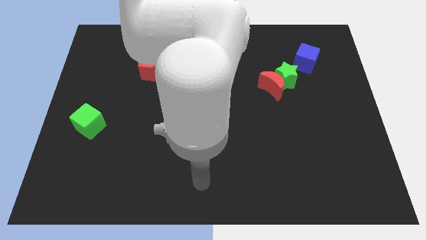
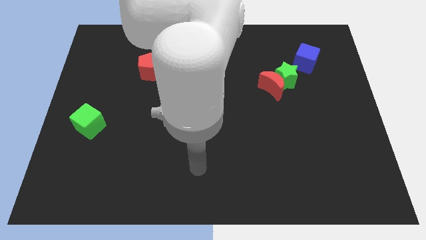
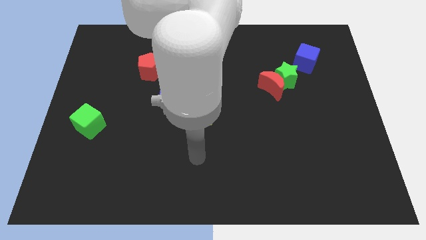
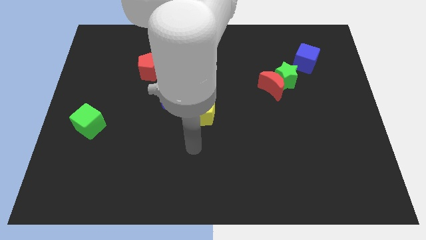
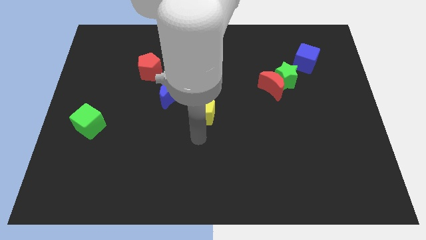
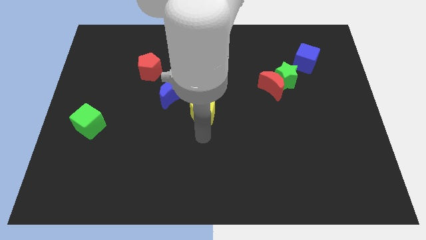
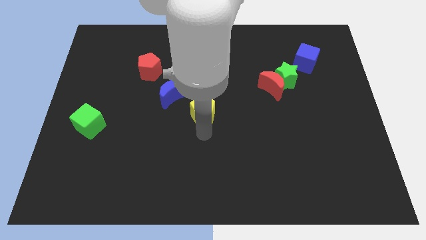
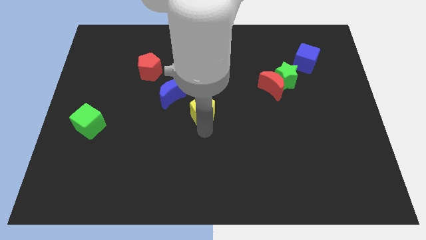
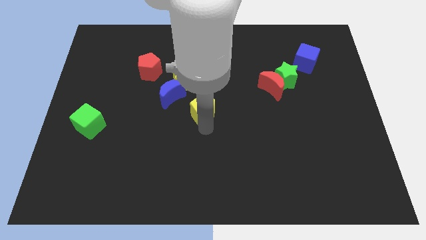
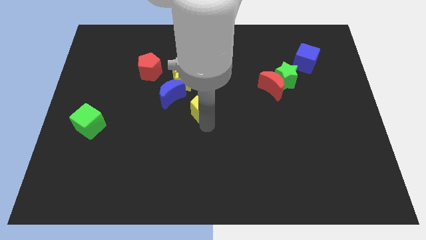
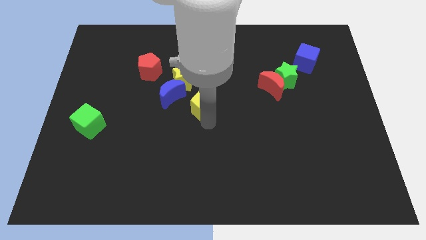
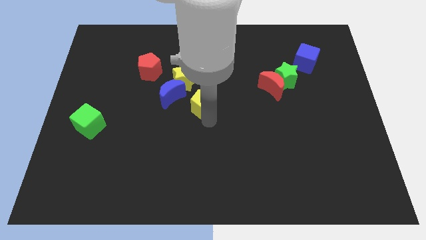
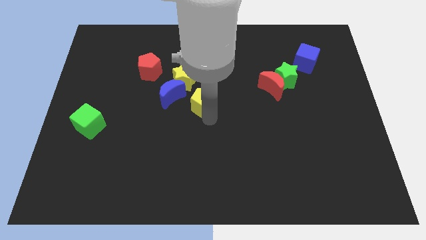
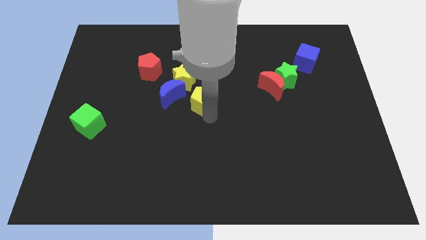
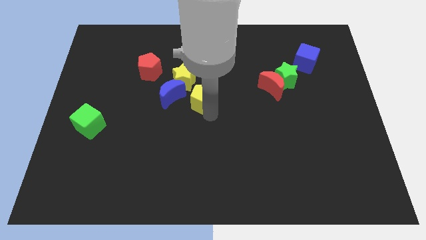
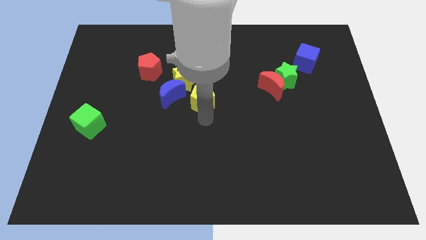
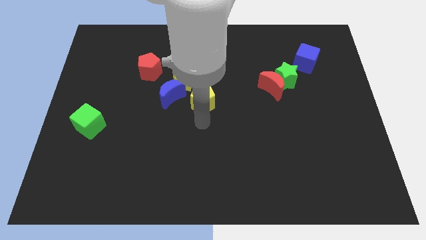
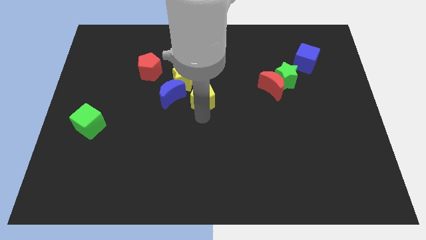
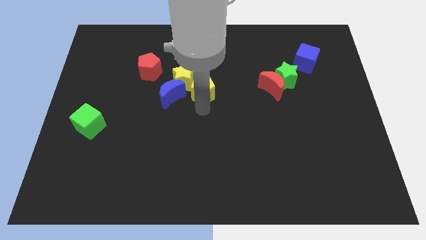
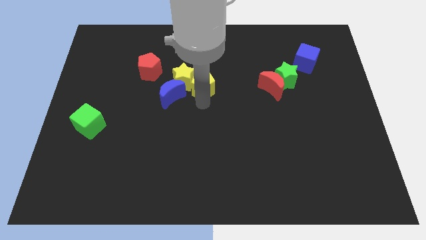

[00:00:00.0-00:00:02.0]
slide the yellow pentagon up slightly

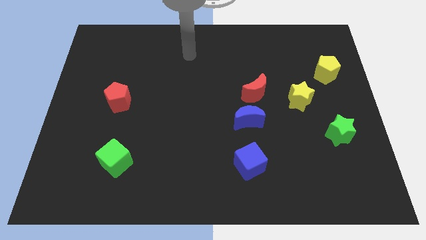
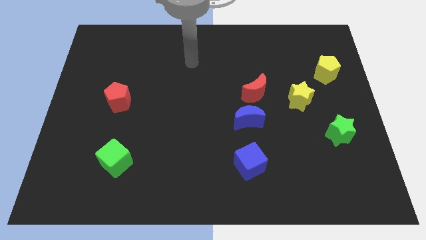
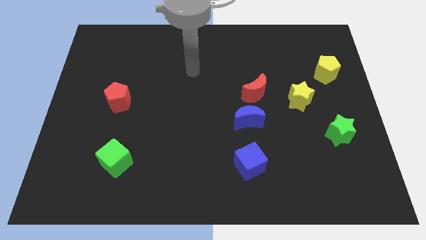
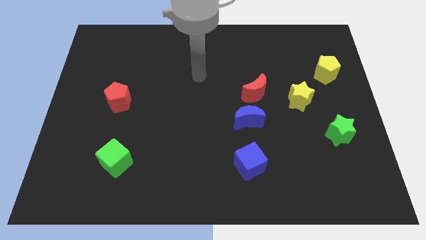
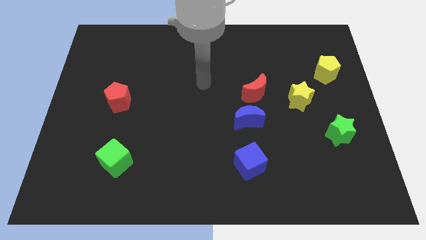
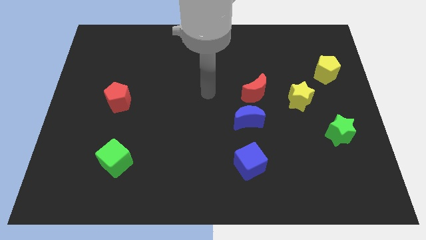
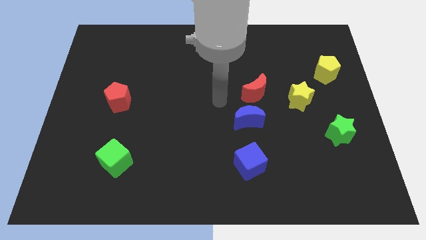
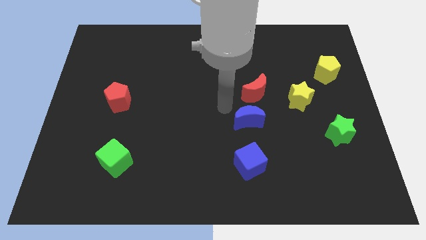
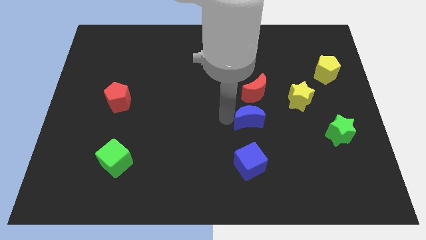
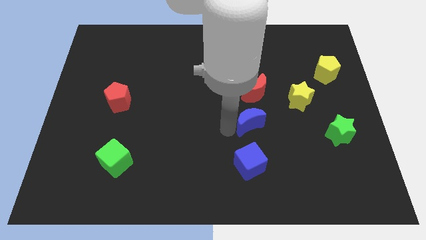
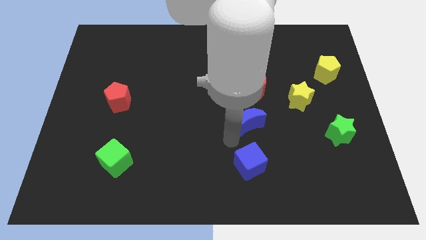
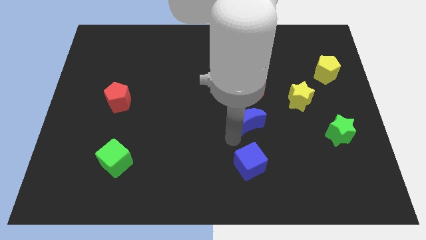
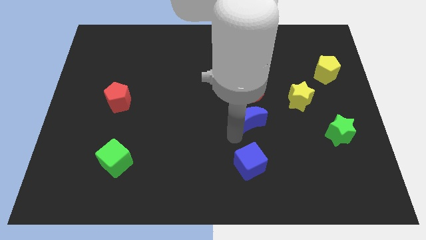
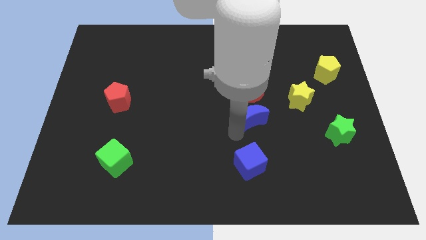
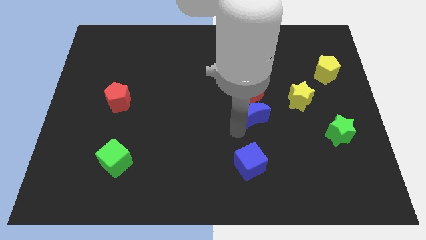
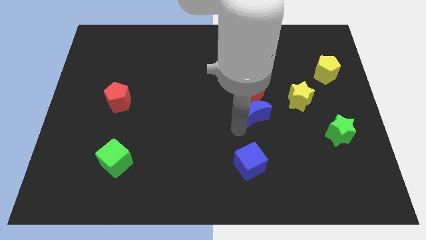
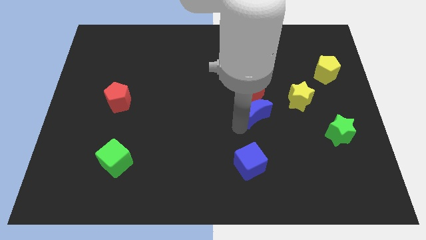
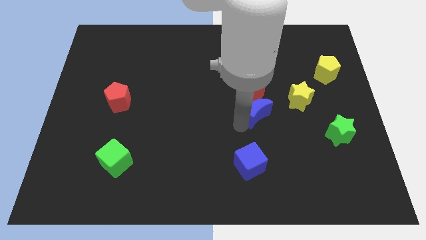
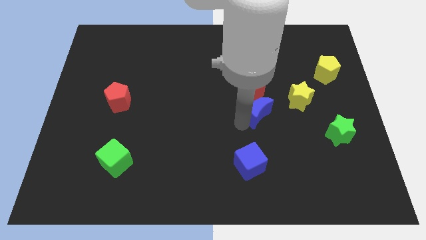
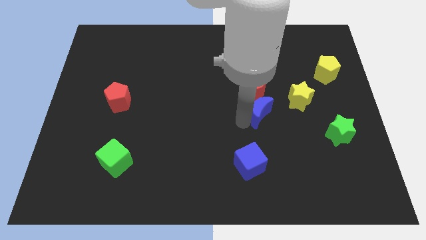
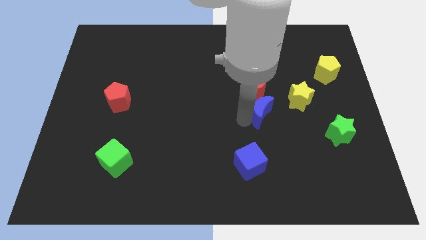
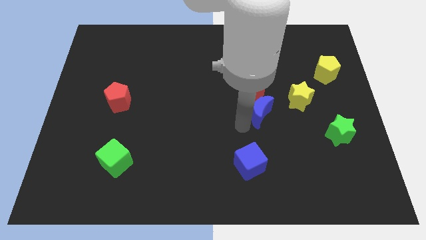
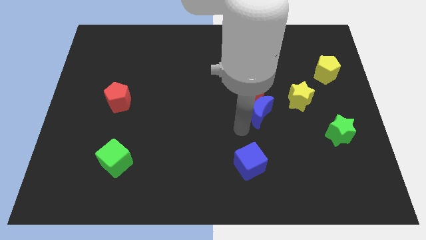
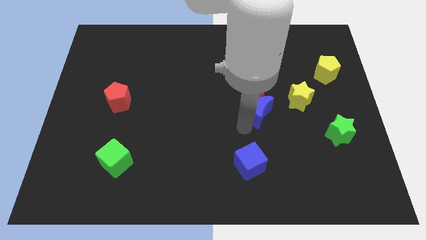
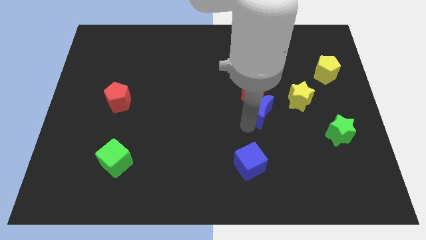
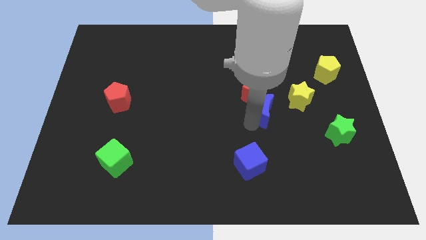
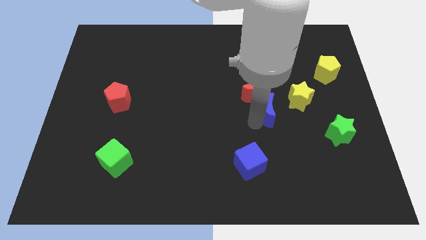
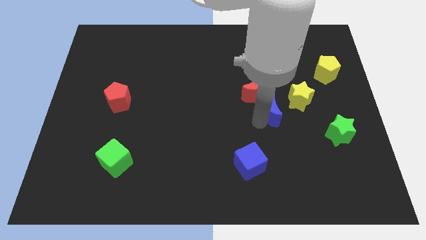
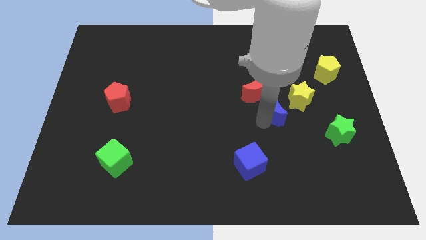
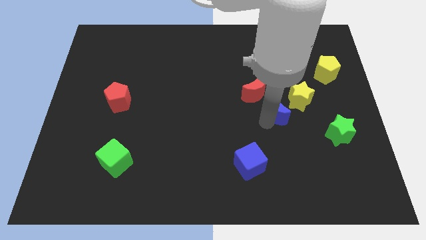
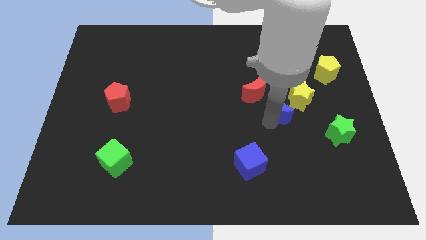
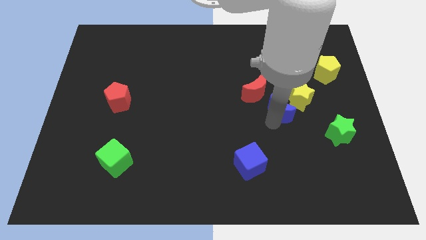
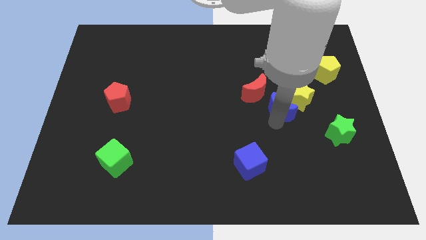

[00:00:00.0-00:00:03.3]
slide the blue moon a little upwards and right

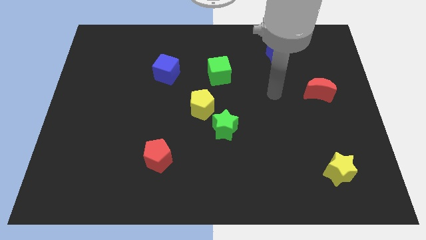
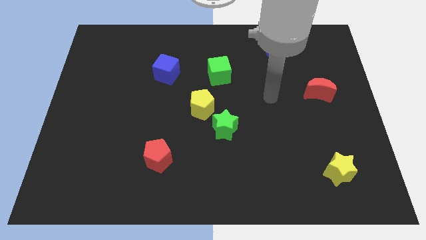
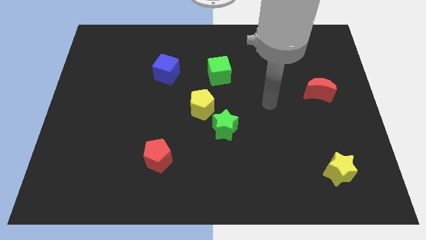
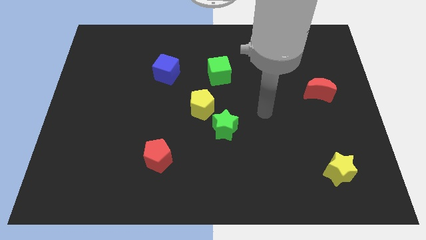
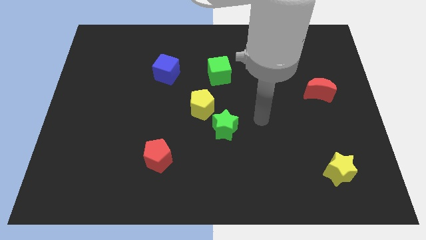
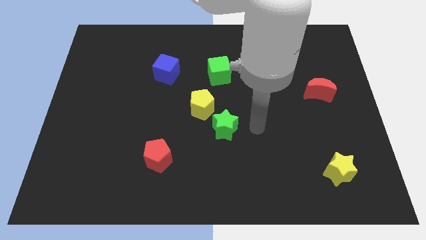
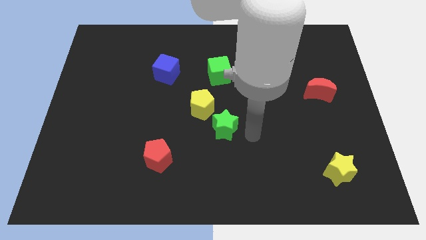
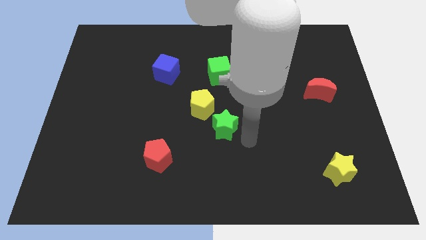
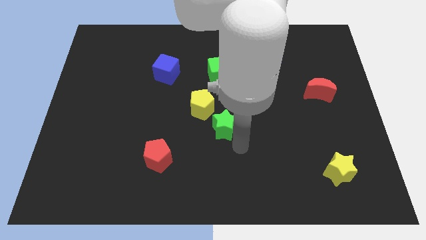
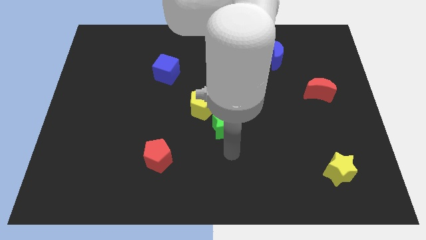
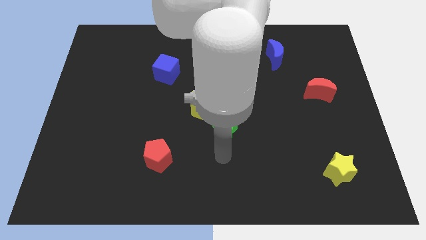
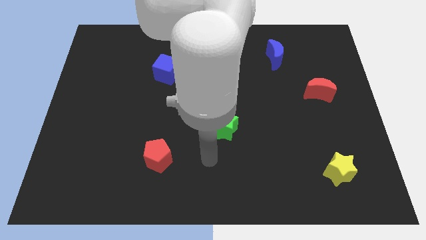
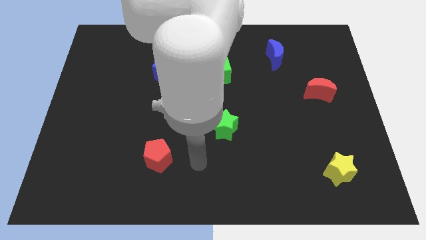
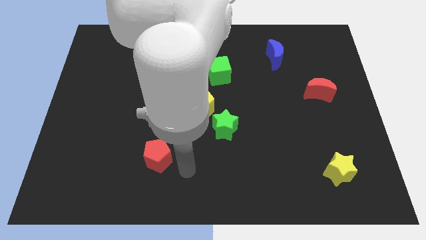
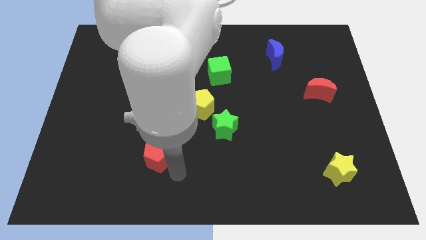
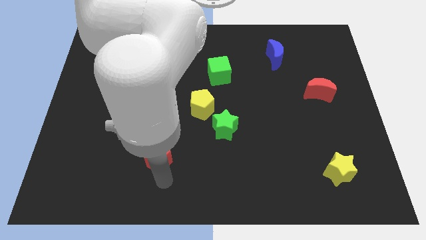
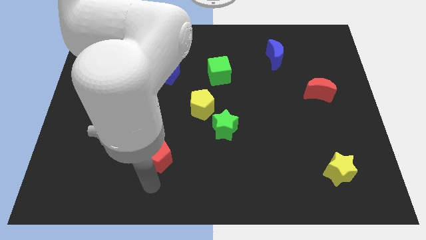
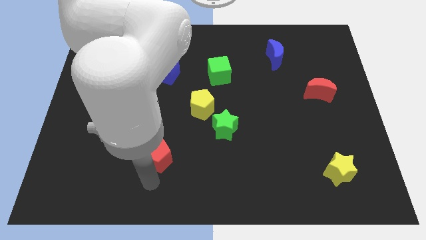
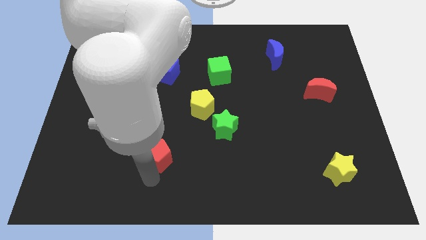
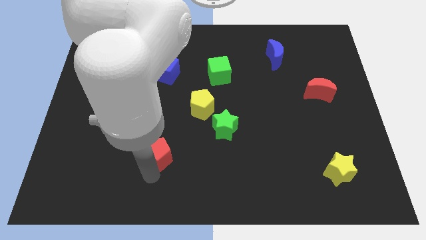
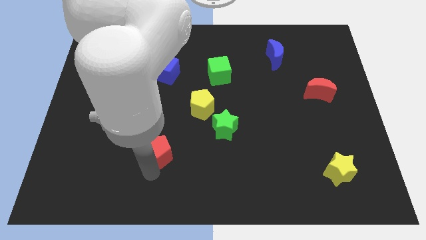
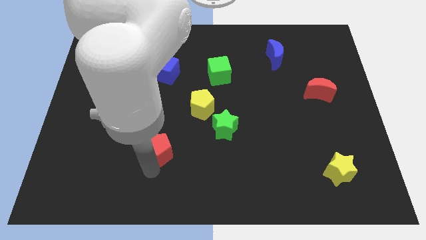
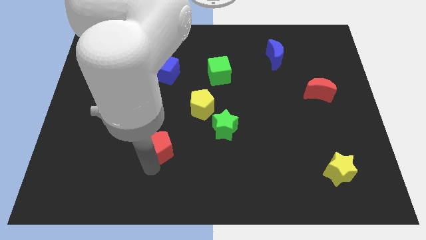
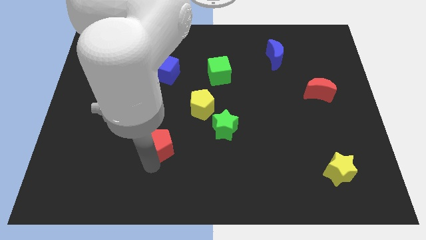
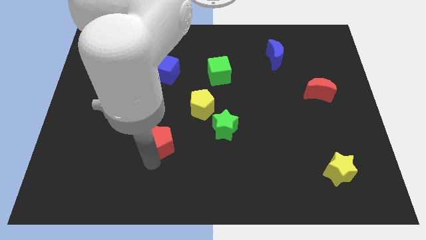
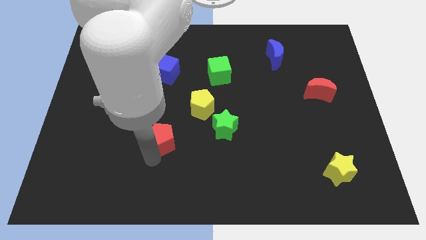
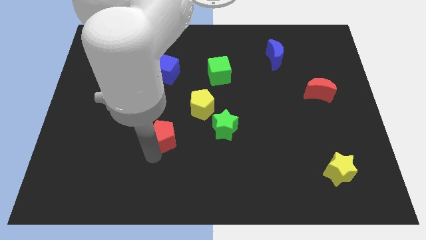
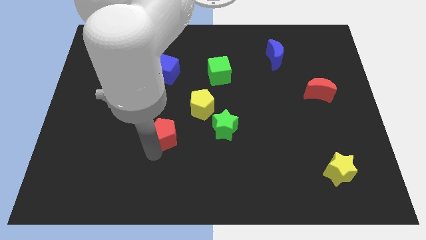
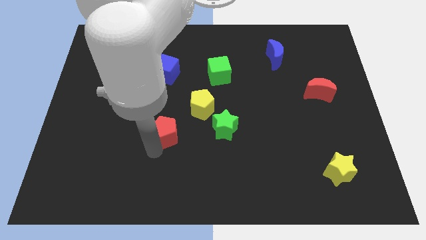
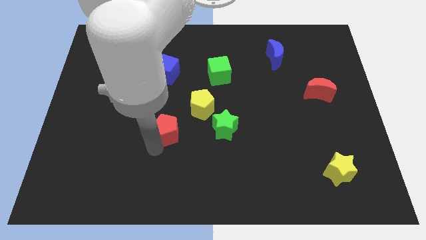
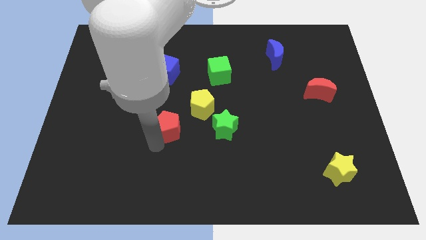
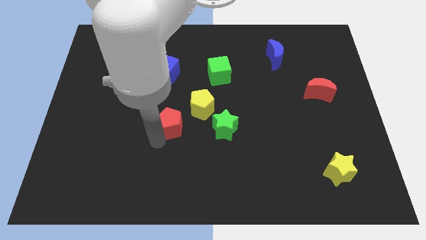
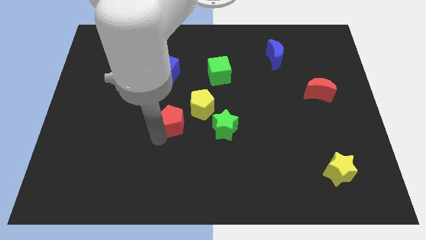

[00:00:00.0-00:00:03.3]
slightly move the red pentagon diagonally upwards and to the right
